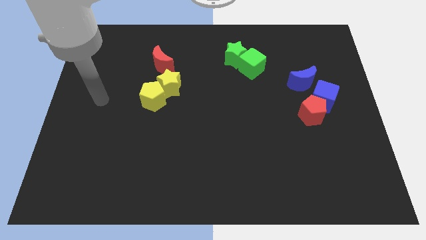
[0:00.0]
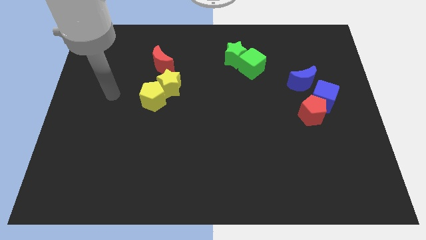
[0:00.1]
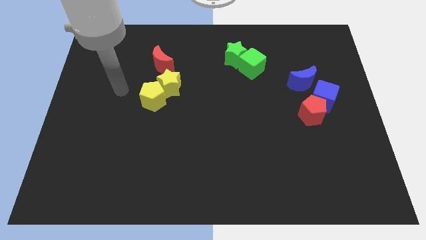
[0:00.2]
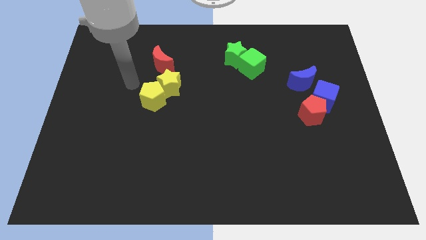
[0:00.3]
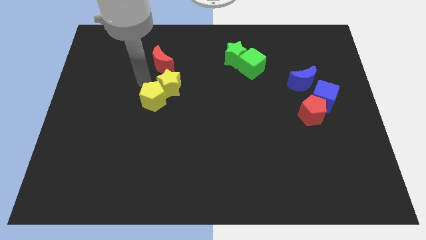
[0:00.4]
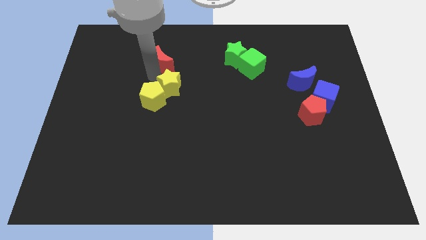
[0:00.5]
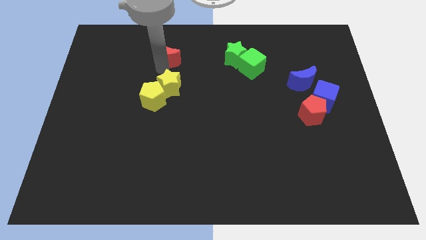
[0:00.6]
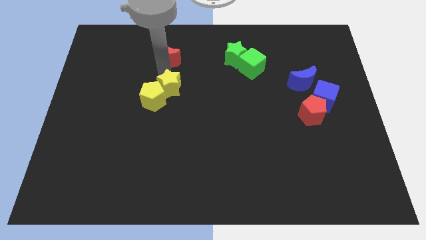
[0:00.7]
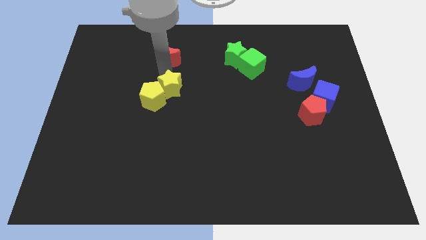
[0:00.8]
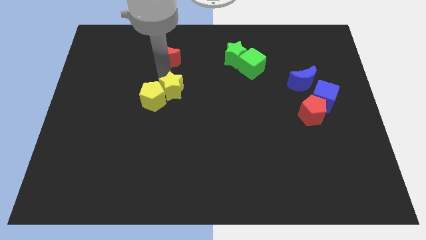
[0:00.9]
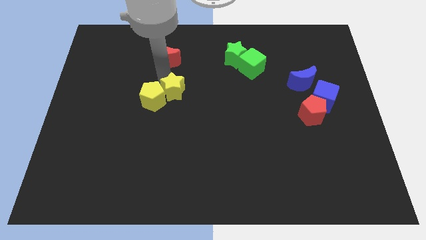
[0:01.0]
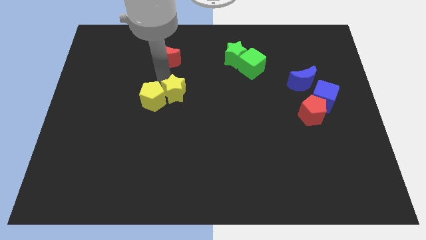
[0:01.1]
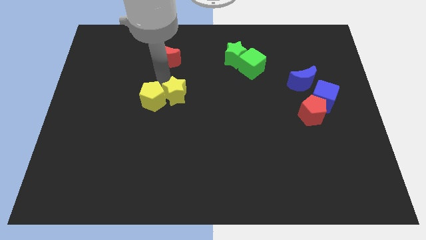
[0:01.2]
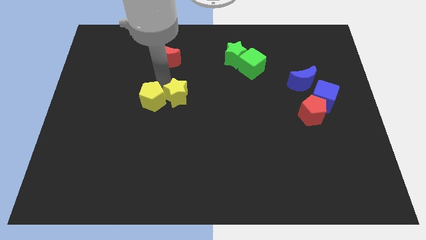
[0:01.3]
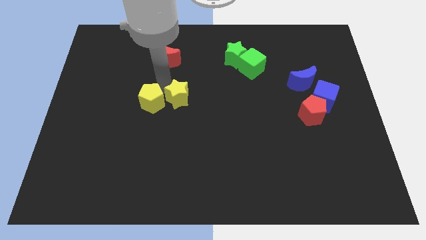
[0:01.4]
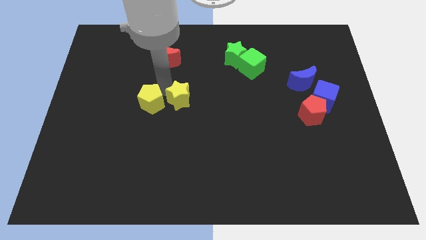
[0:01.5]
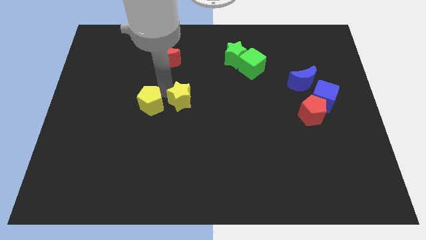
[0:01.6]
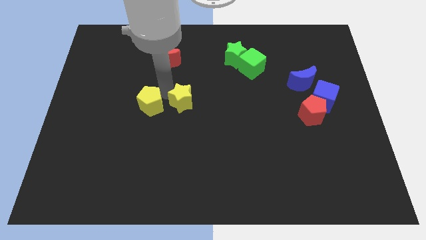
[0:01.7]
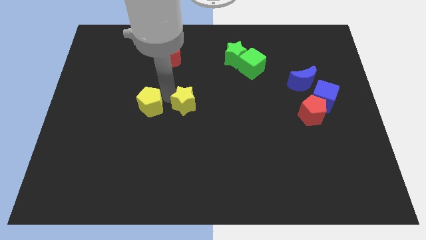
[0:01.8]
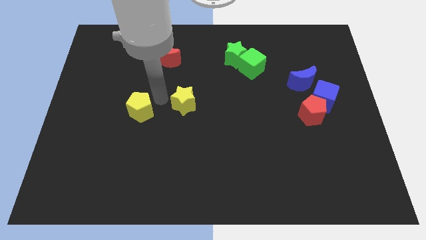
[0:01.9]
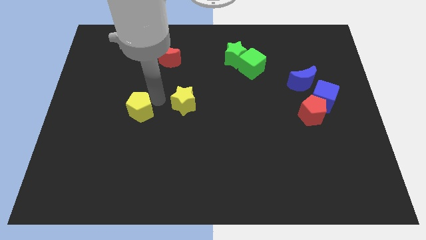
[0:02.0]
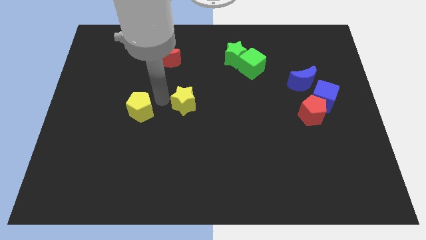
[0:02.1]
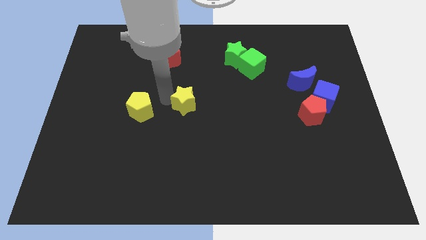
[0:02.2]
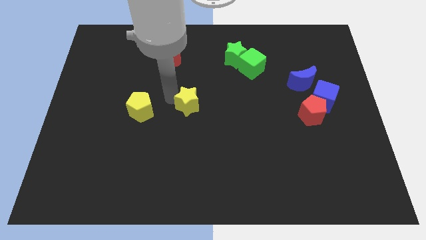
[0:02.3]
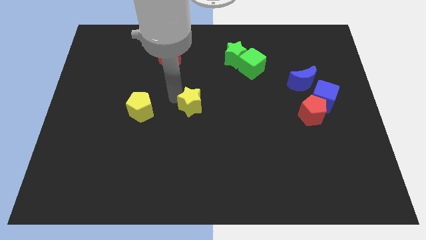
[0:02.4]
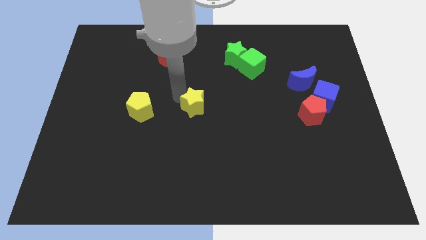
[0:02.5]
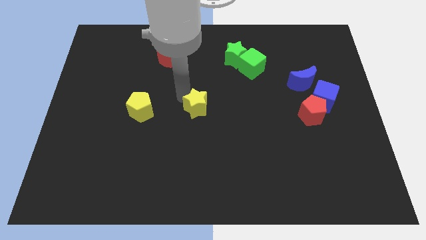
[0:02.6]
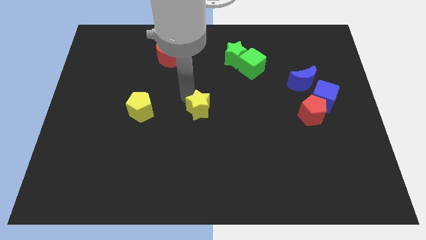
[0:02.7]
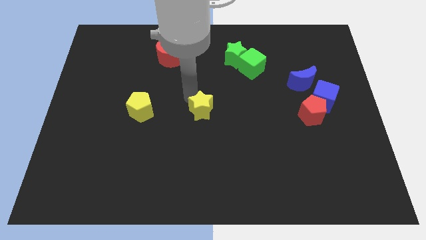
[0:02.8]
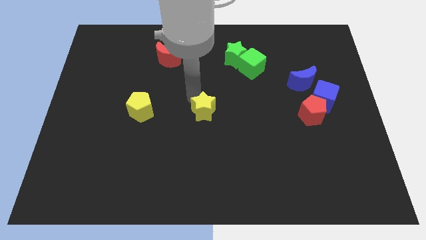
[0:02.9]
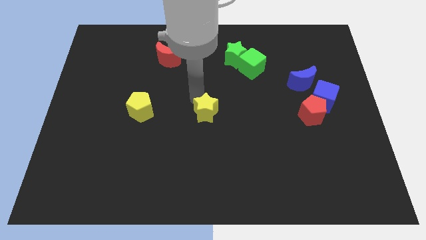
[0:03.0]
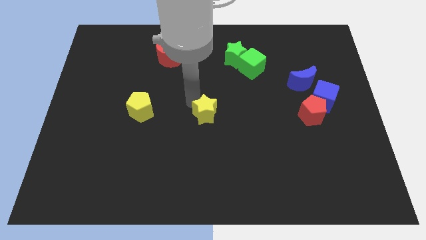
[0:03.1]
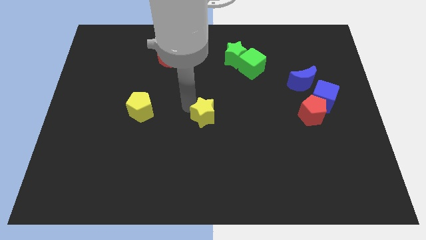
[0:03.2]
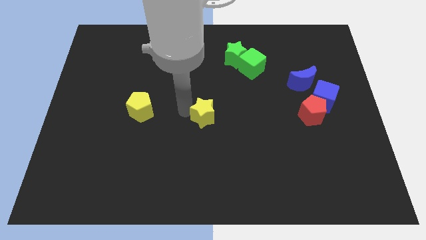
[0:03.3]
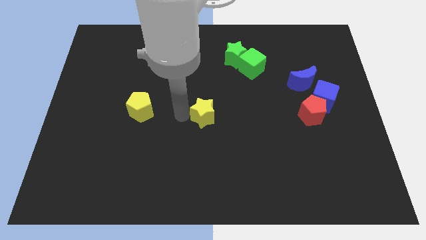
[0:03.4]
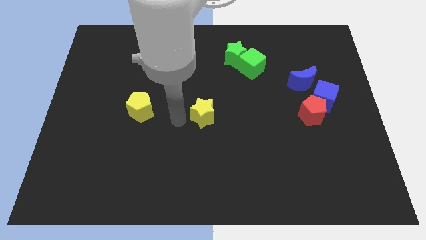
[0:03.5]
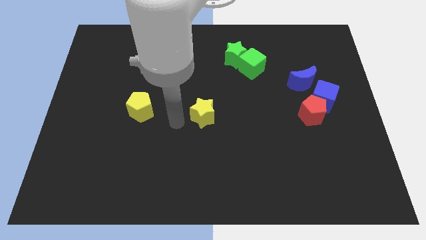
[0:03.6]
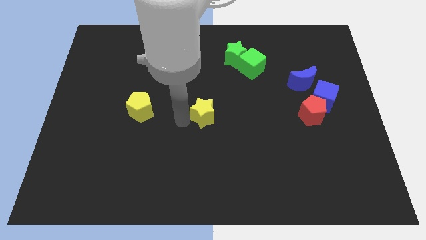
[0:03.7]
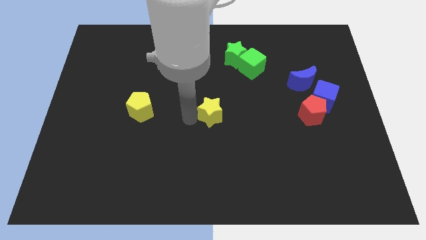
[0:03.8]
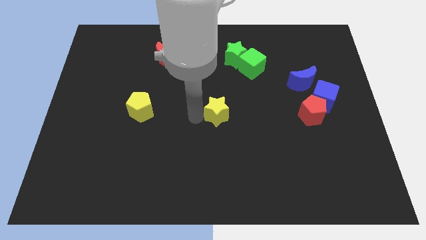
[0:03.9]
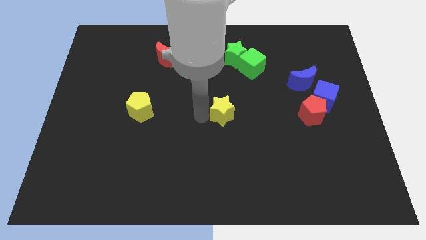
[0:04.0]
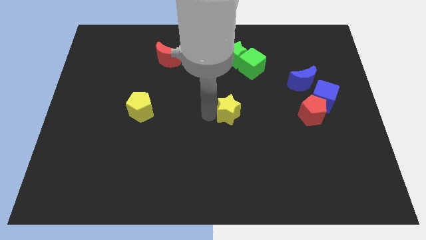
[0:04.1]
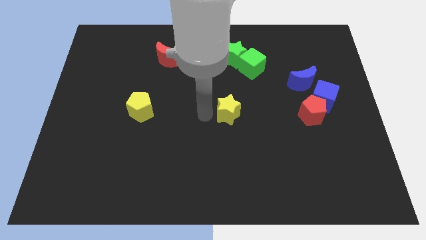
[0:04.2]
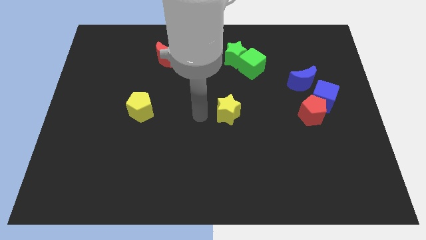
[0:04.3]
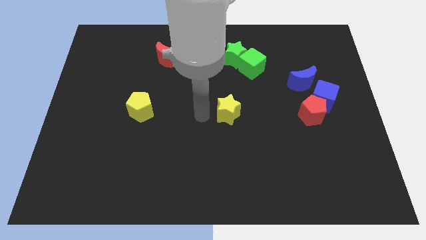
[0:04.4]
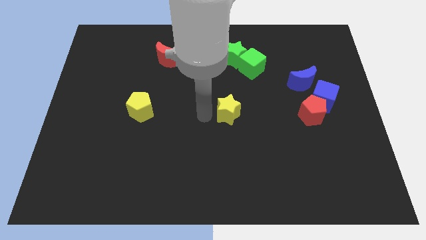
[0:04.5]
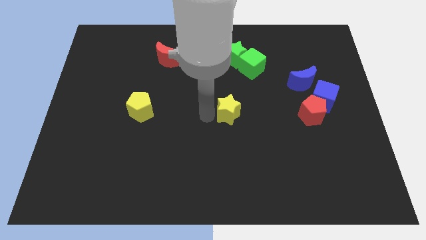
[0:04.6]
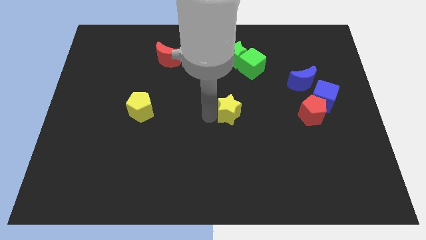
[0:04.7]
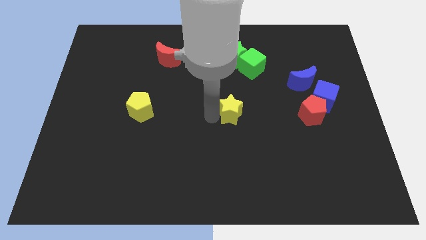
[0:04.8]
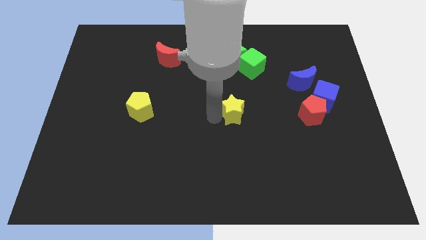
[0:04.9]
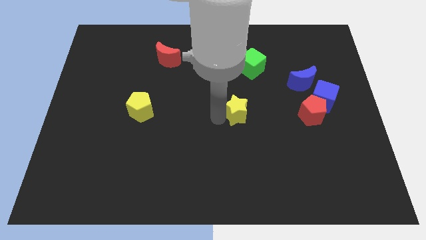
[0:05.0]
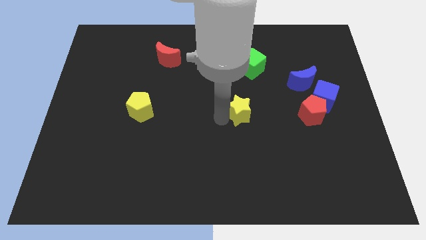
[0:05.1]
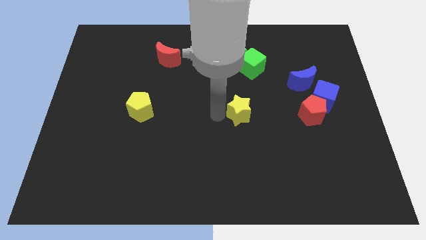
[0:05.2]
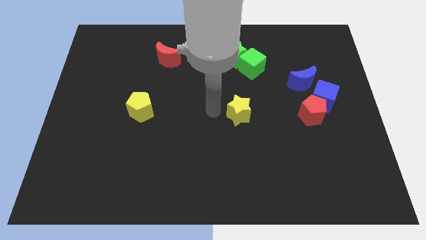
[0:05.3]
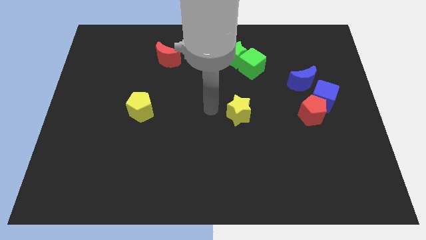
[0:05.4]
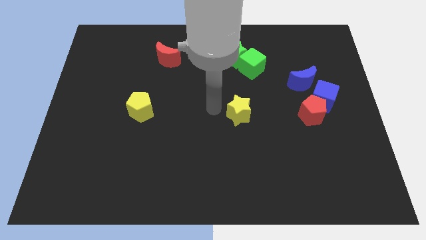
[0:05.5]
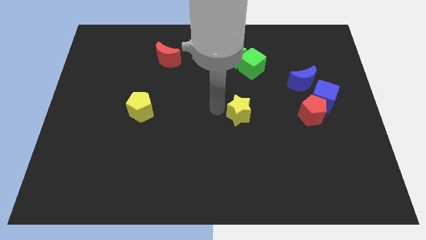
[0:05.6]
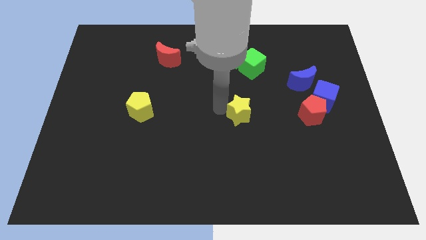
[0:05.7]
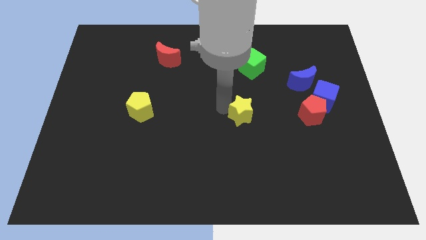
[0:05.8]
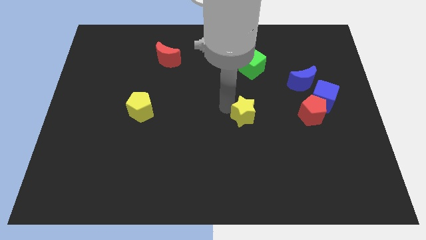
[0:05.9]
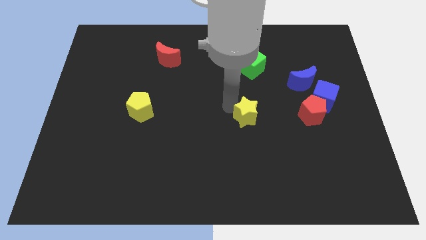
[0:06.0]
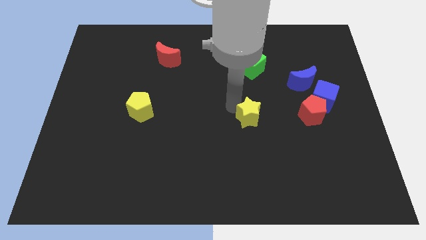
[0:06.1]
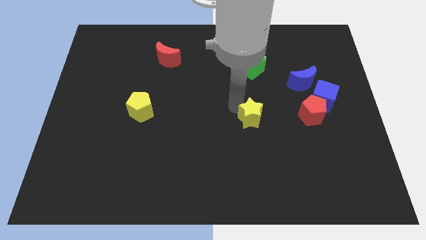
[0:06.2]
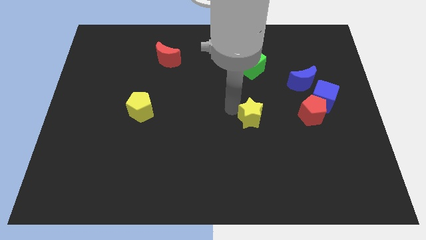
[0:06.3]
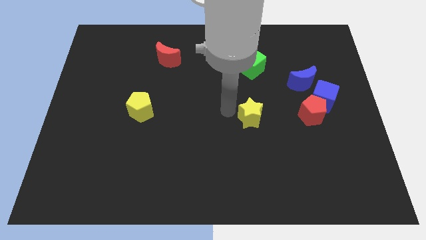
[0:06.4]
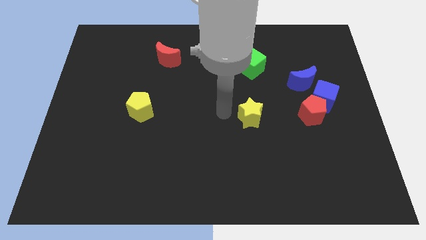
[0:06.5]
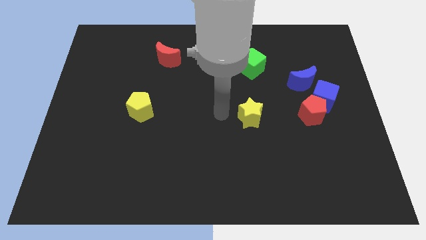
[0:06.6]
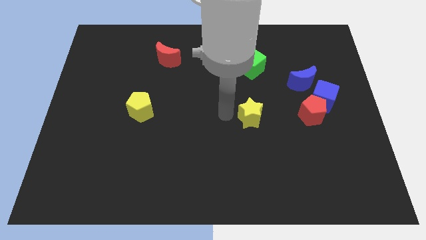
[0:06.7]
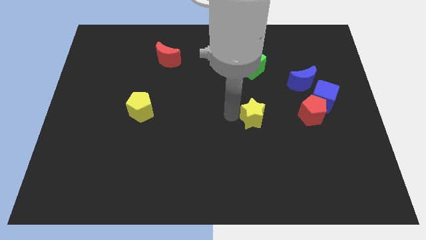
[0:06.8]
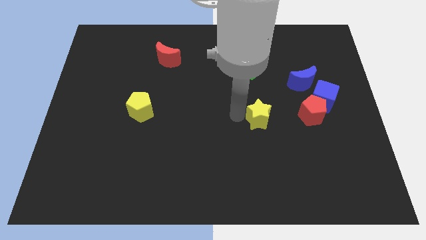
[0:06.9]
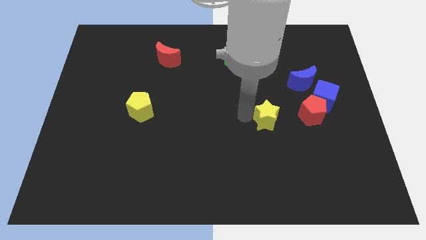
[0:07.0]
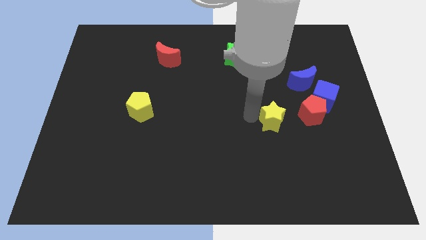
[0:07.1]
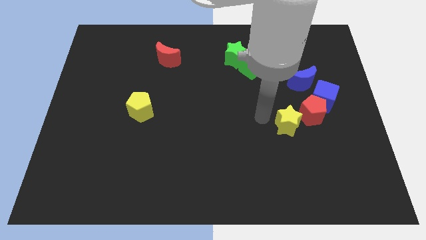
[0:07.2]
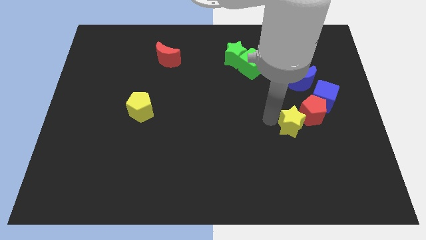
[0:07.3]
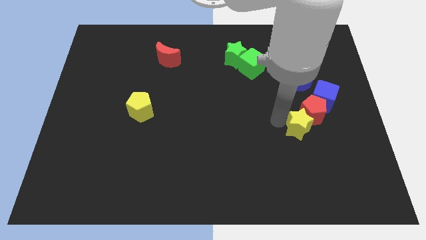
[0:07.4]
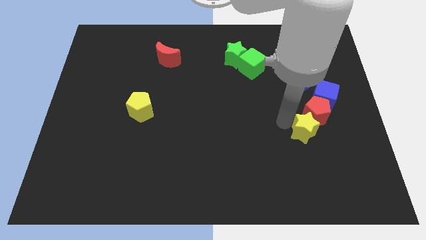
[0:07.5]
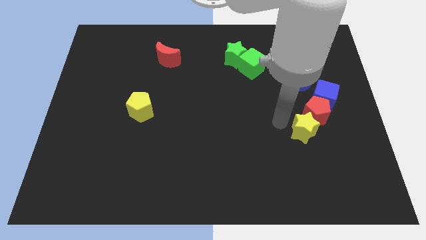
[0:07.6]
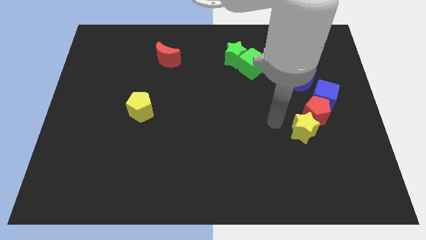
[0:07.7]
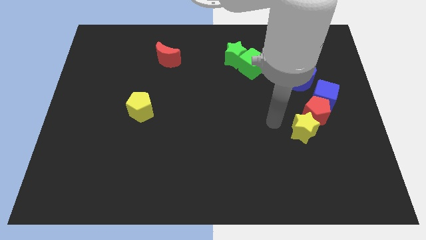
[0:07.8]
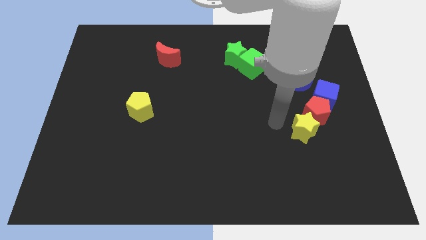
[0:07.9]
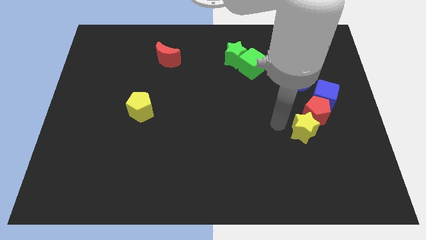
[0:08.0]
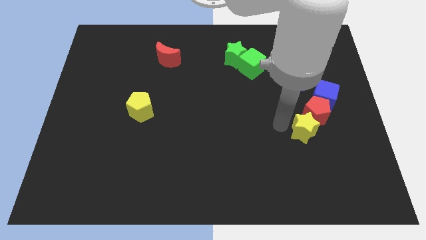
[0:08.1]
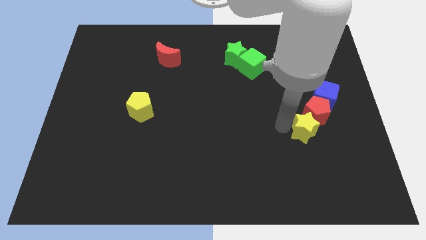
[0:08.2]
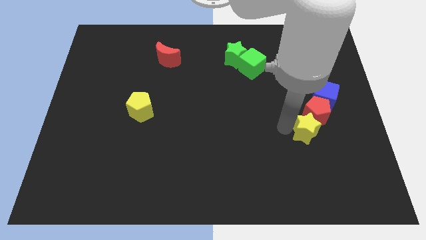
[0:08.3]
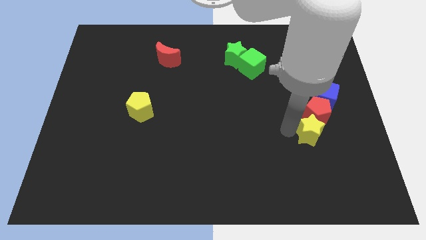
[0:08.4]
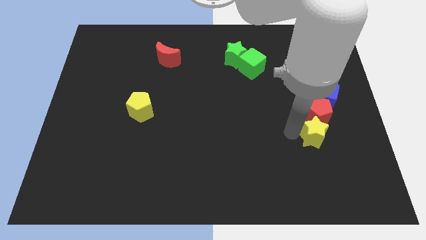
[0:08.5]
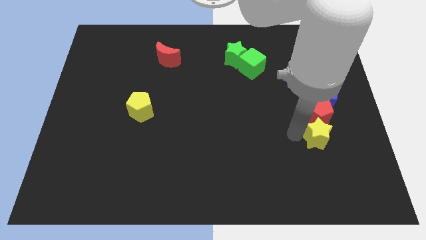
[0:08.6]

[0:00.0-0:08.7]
put the yellow star diagonally down and to the right of the red pentagon
